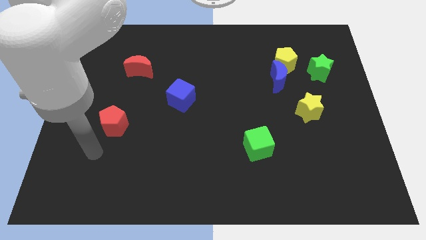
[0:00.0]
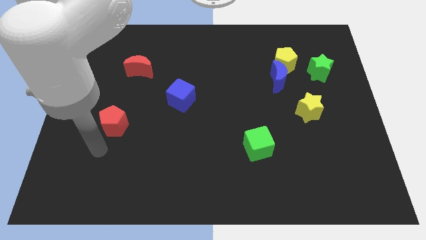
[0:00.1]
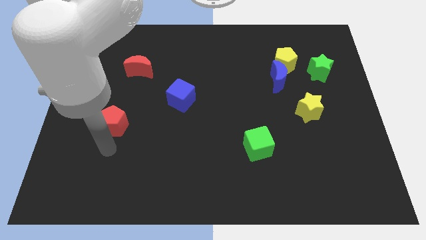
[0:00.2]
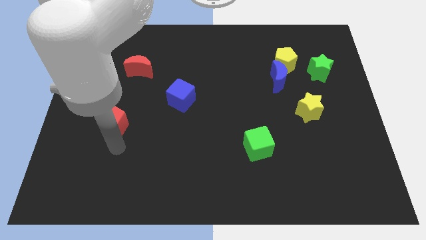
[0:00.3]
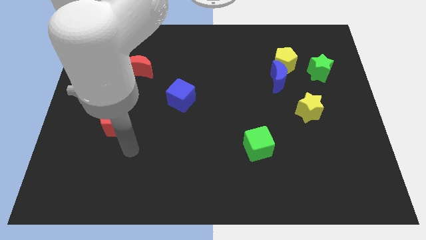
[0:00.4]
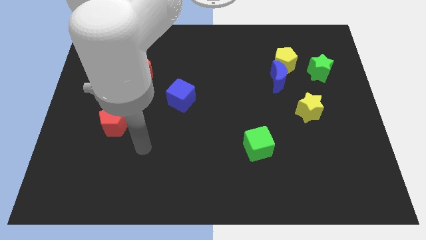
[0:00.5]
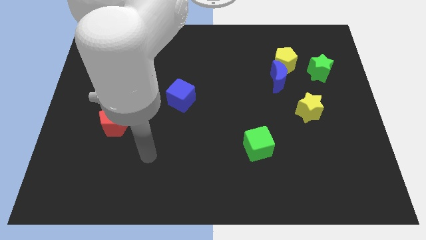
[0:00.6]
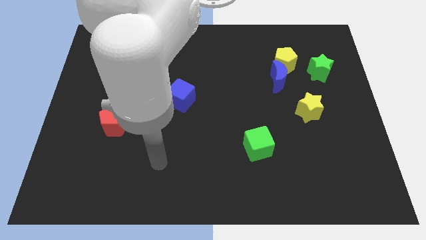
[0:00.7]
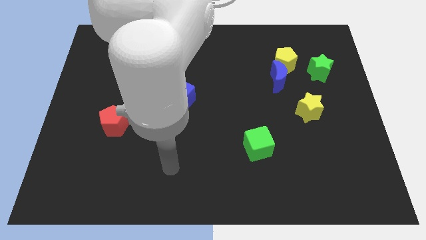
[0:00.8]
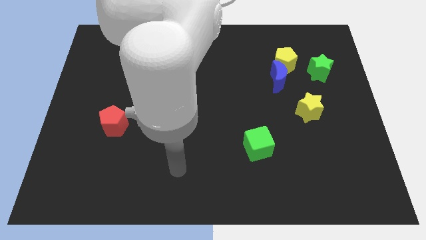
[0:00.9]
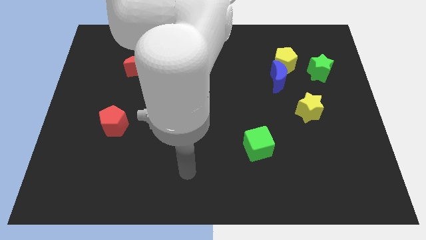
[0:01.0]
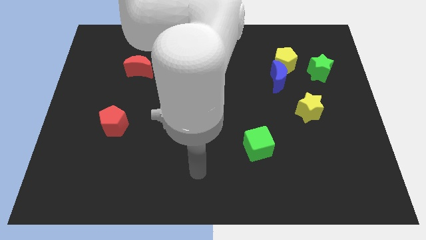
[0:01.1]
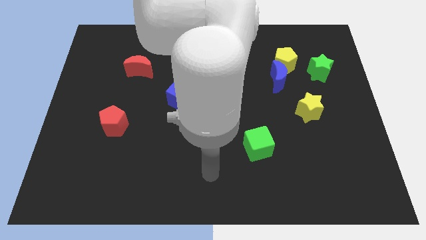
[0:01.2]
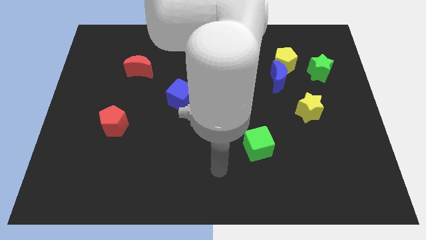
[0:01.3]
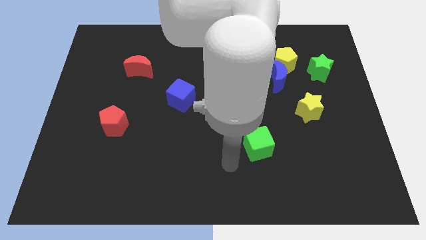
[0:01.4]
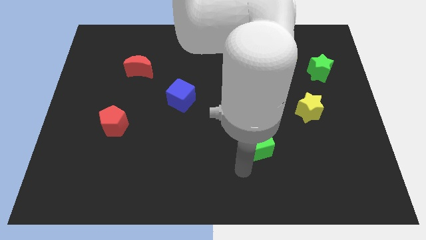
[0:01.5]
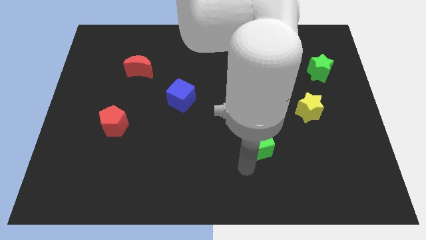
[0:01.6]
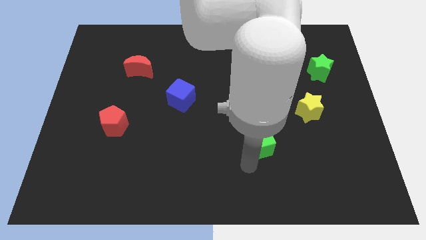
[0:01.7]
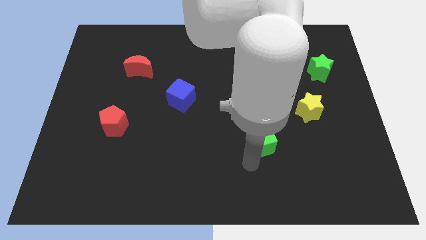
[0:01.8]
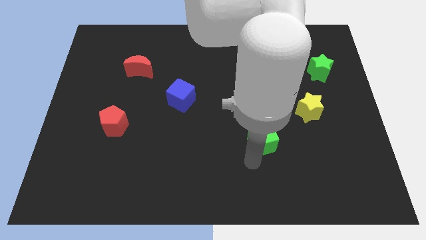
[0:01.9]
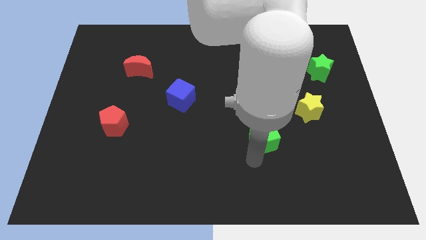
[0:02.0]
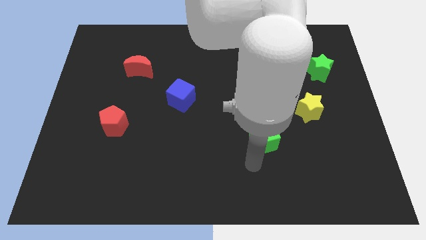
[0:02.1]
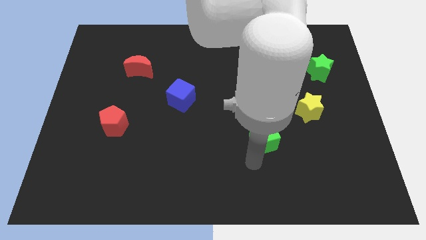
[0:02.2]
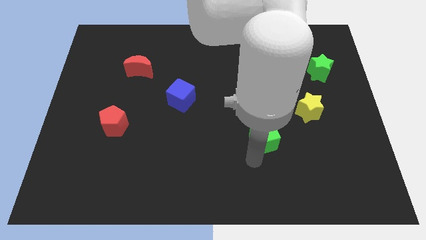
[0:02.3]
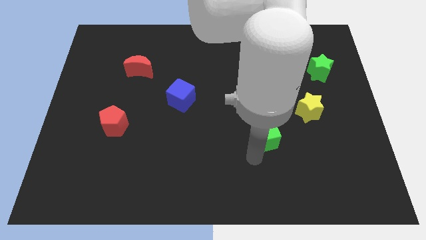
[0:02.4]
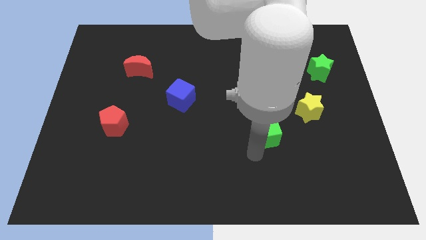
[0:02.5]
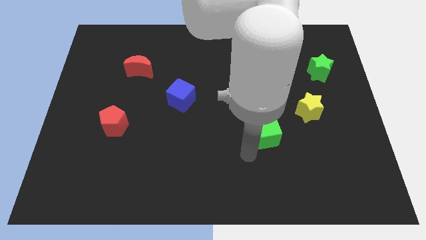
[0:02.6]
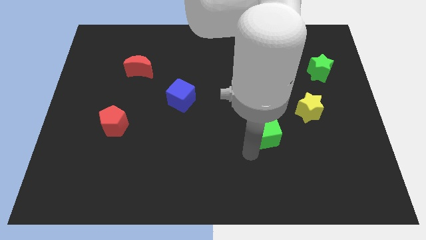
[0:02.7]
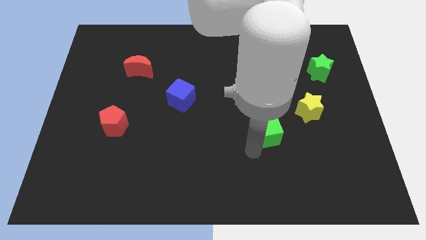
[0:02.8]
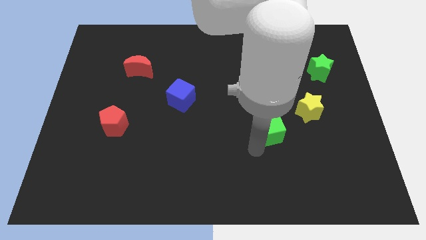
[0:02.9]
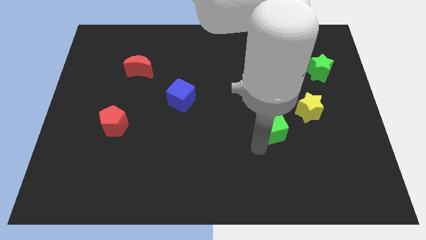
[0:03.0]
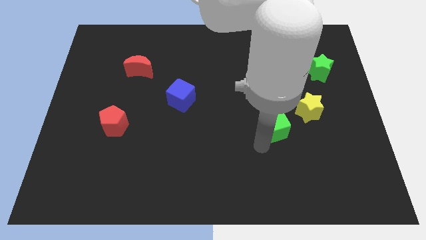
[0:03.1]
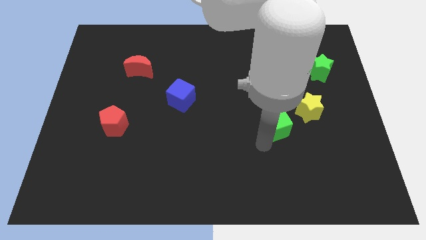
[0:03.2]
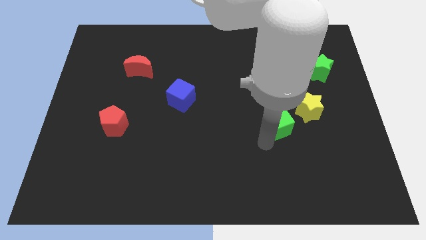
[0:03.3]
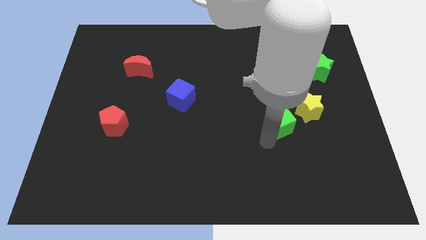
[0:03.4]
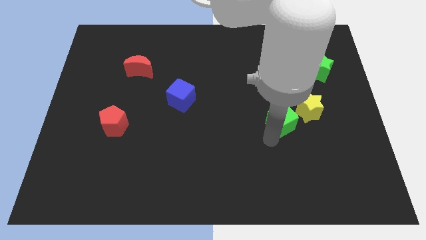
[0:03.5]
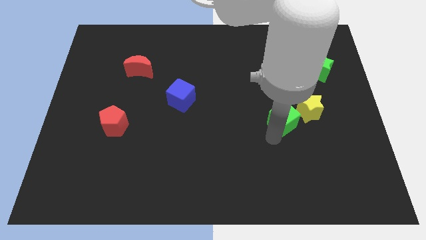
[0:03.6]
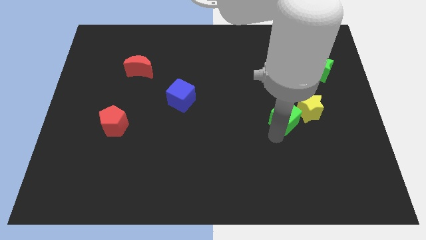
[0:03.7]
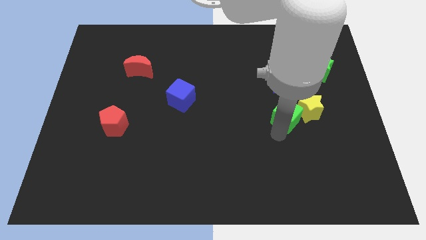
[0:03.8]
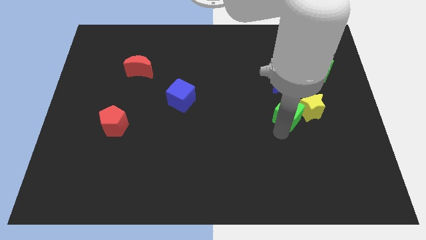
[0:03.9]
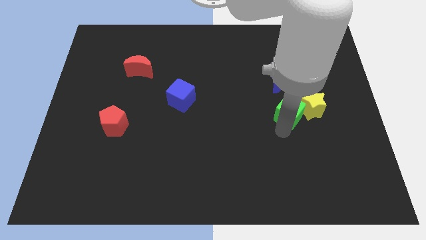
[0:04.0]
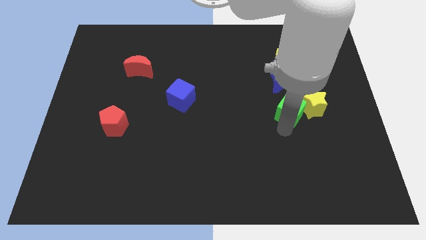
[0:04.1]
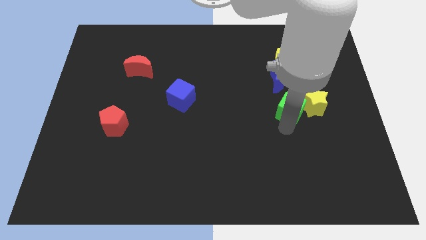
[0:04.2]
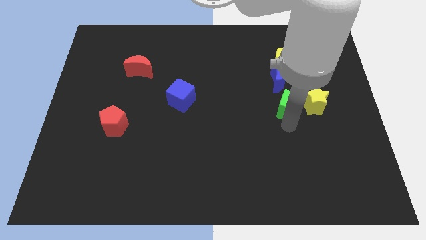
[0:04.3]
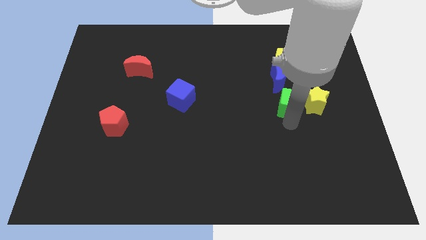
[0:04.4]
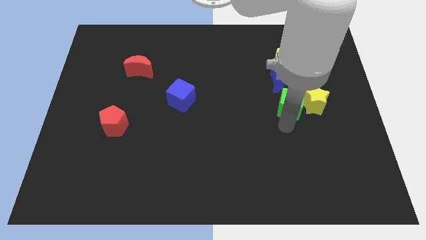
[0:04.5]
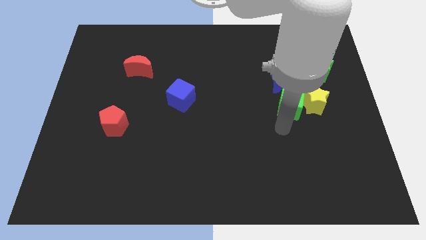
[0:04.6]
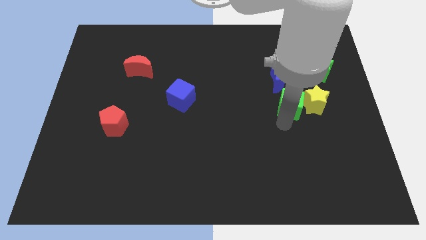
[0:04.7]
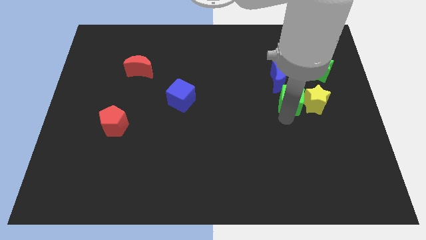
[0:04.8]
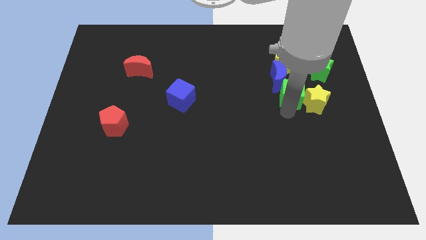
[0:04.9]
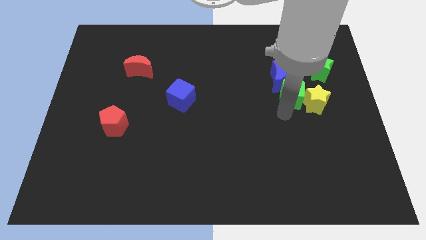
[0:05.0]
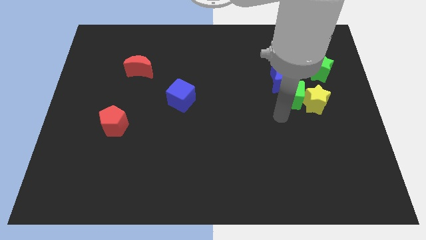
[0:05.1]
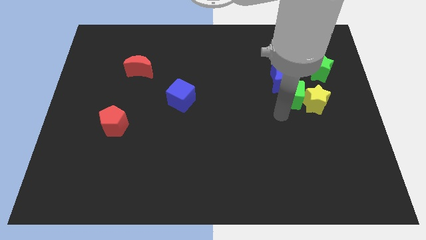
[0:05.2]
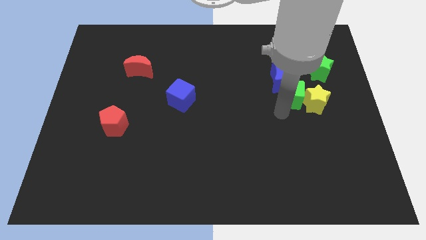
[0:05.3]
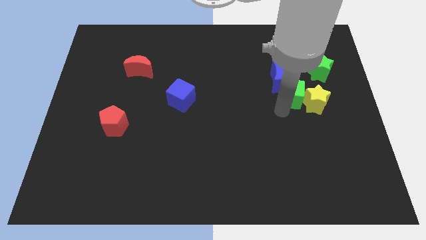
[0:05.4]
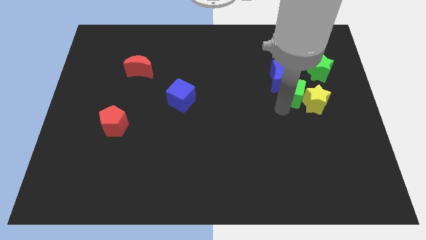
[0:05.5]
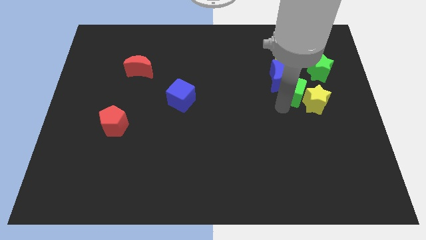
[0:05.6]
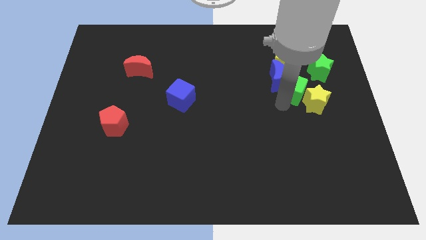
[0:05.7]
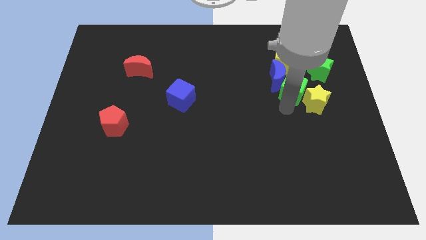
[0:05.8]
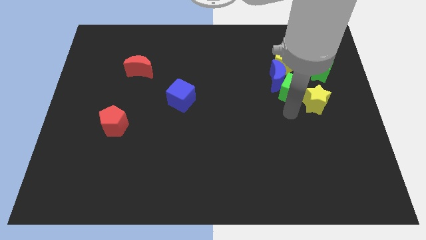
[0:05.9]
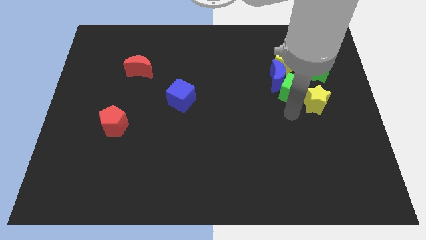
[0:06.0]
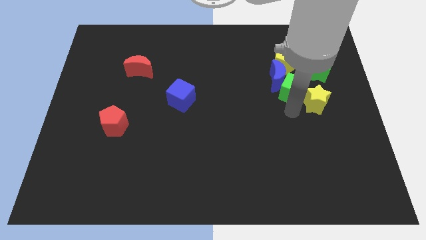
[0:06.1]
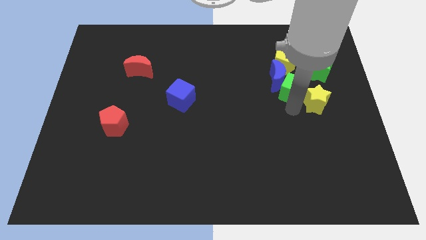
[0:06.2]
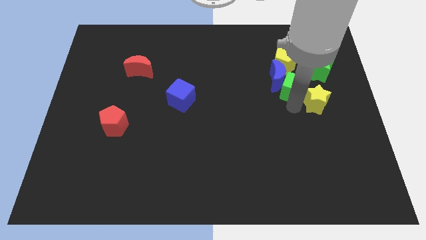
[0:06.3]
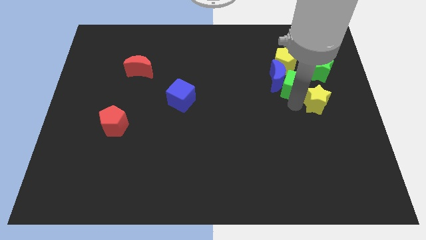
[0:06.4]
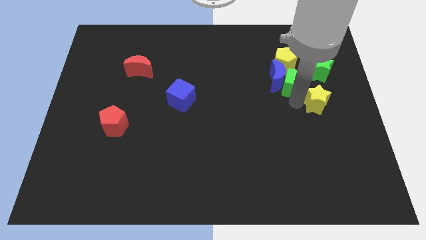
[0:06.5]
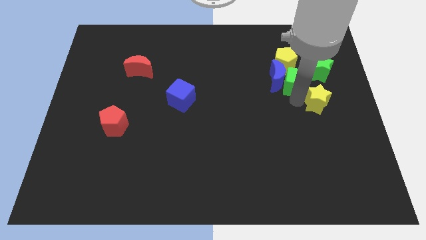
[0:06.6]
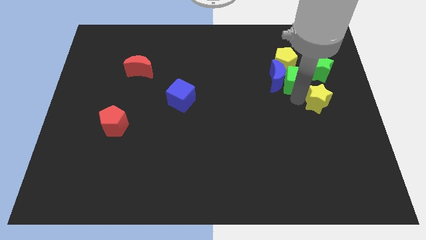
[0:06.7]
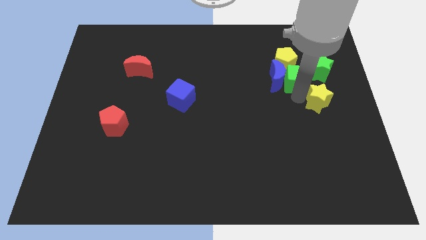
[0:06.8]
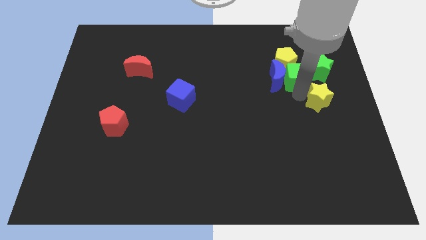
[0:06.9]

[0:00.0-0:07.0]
move the green cube close to the yellow pentagon

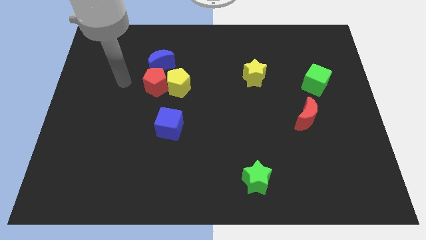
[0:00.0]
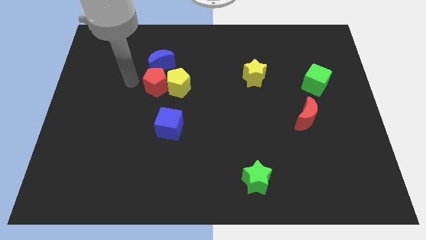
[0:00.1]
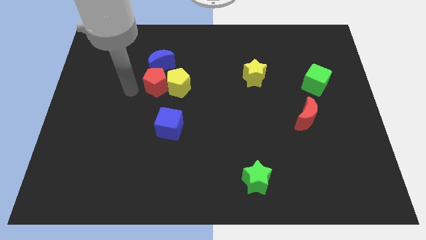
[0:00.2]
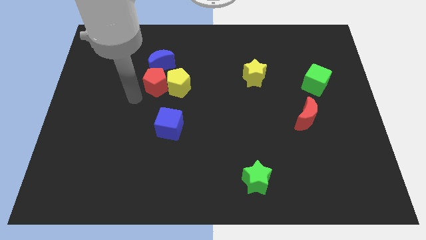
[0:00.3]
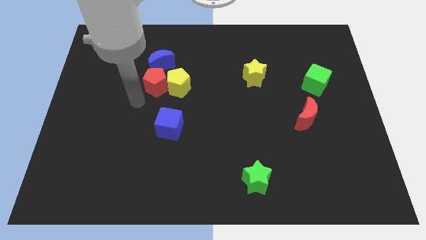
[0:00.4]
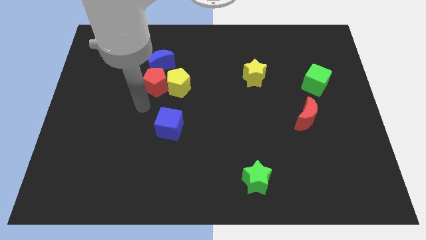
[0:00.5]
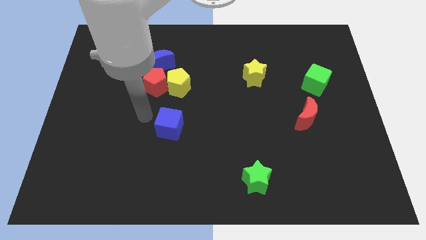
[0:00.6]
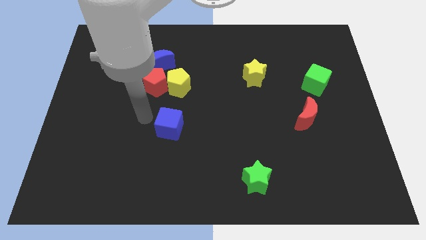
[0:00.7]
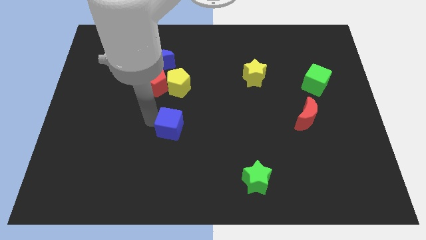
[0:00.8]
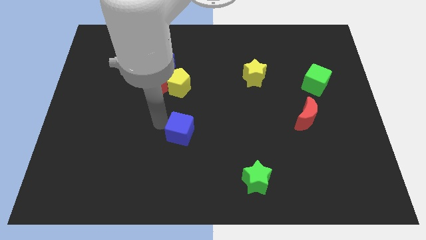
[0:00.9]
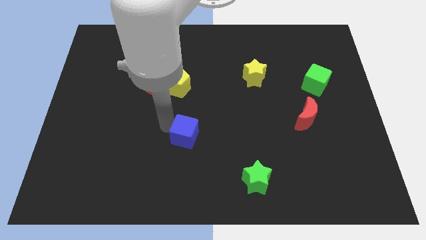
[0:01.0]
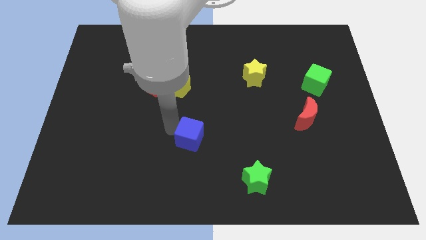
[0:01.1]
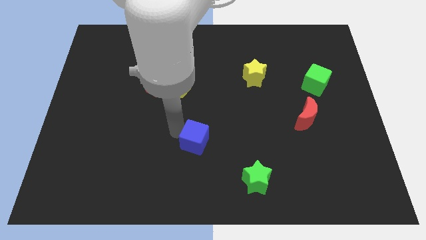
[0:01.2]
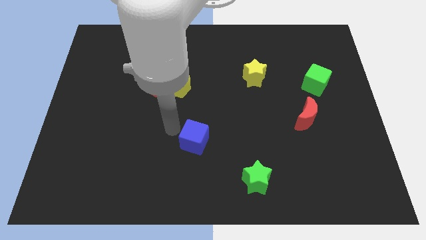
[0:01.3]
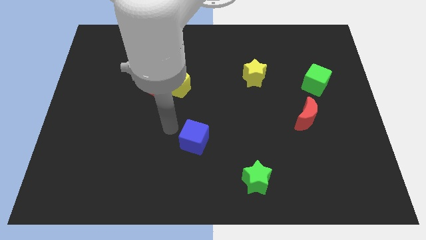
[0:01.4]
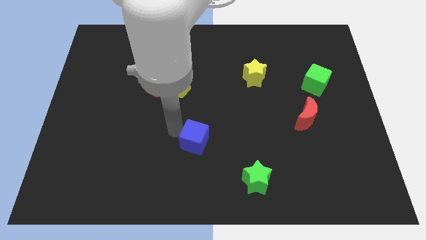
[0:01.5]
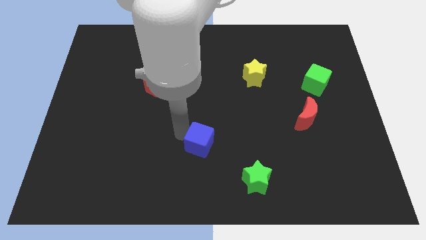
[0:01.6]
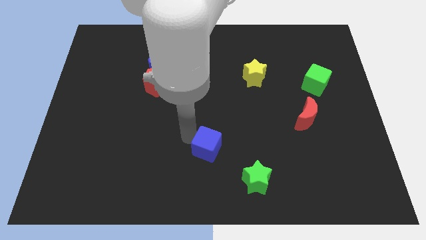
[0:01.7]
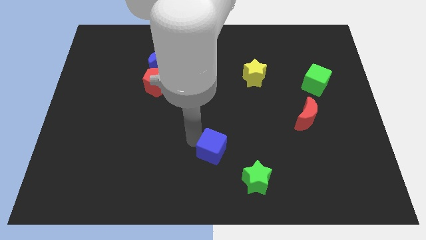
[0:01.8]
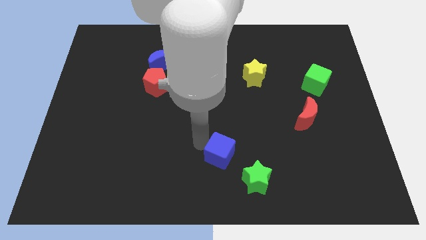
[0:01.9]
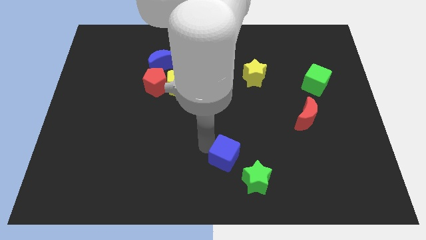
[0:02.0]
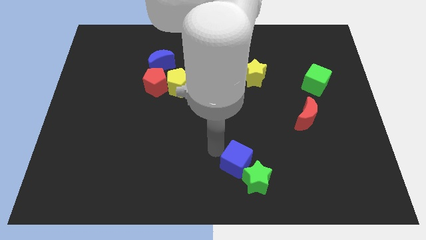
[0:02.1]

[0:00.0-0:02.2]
put the blue cube close to the green star
